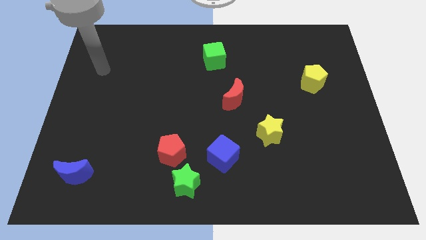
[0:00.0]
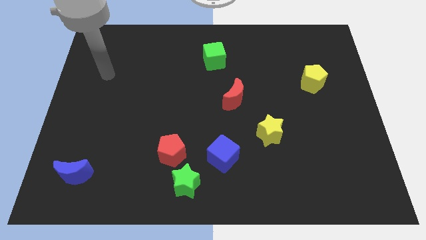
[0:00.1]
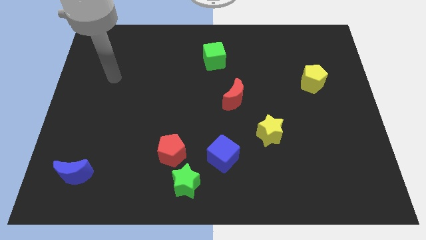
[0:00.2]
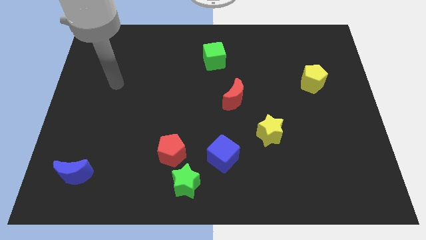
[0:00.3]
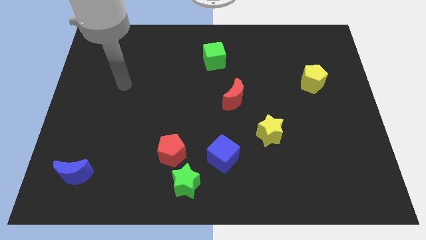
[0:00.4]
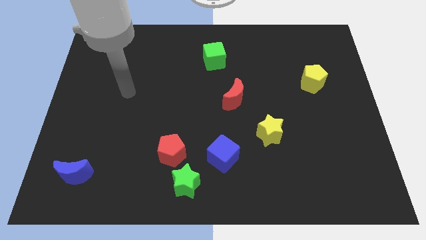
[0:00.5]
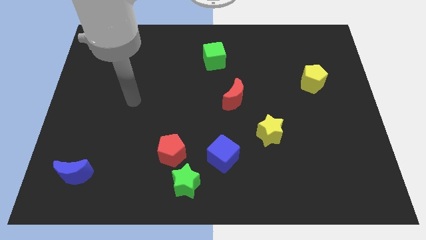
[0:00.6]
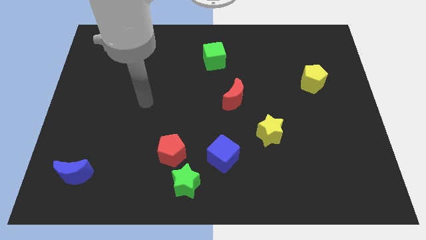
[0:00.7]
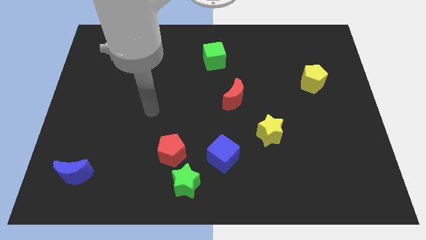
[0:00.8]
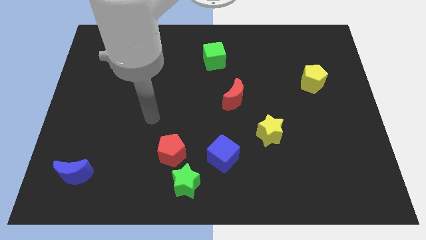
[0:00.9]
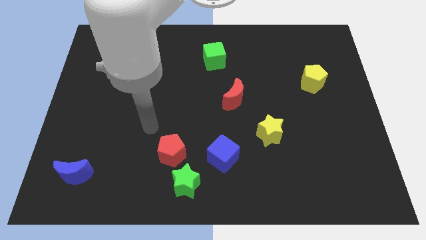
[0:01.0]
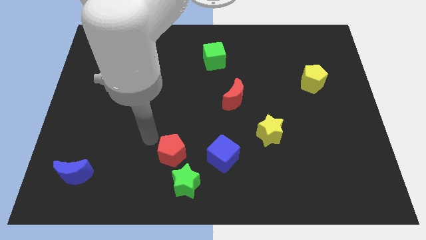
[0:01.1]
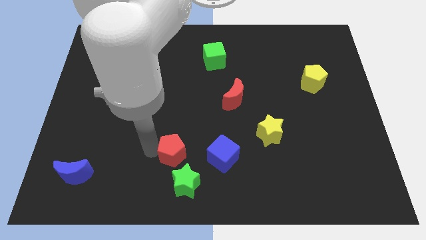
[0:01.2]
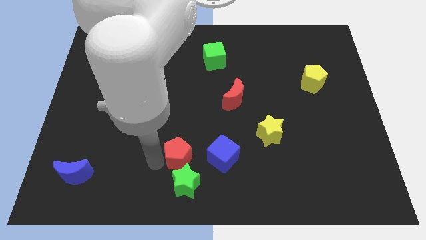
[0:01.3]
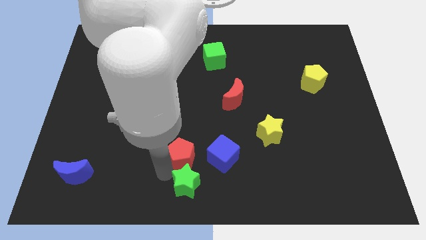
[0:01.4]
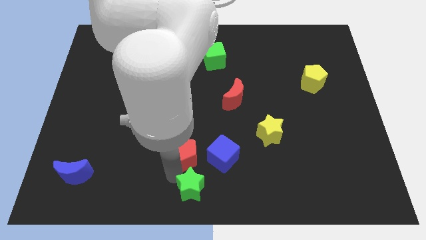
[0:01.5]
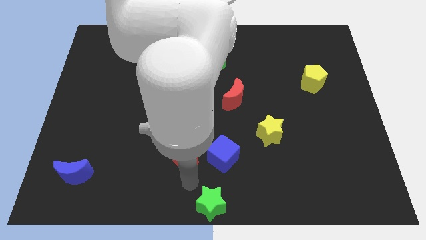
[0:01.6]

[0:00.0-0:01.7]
pull the red pentagon apart from the green star

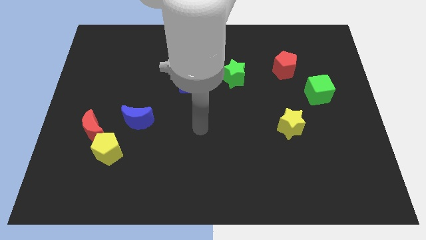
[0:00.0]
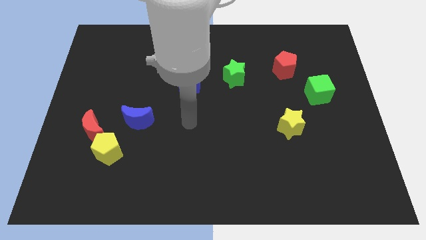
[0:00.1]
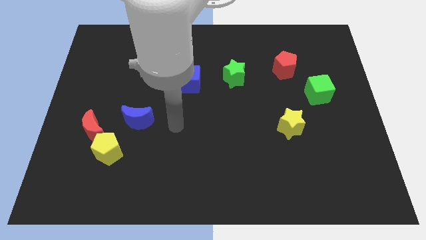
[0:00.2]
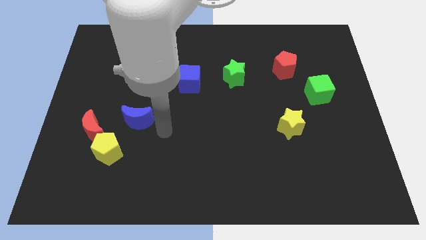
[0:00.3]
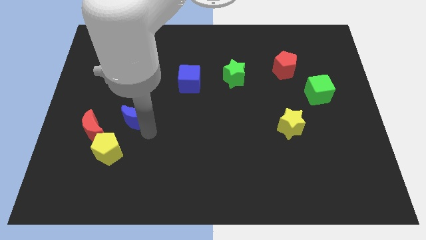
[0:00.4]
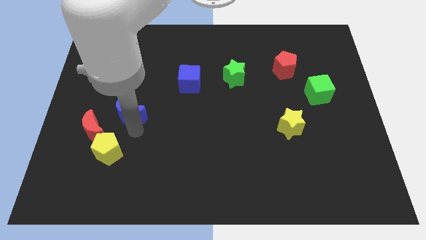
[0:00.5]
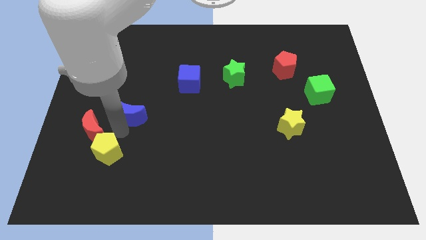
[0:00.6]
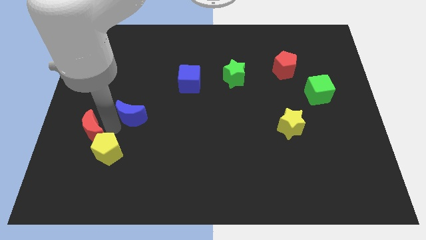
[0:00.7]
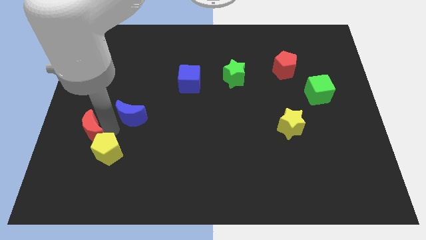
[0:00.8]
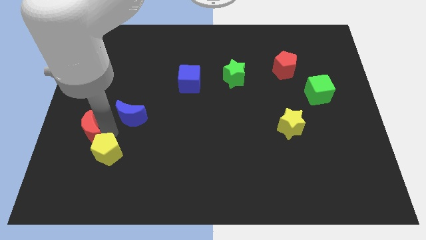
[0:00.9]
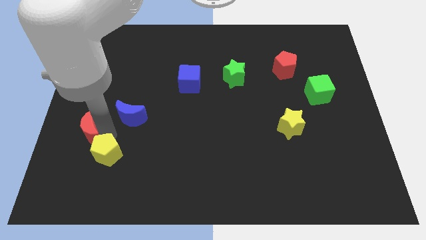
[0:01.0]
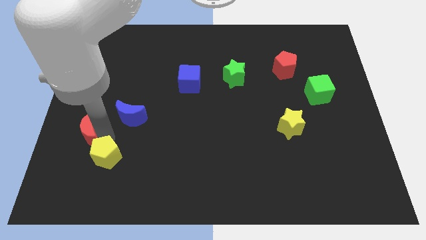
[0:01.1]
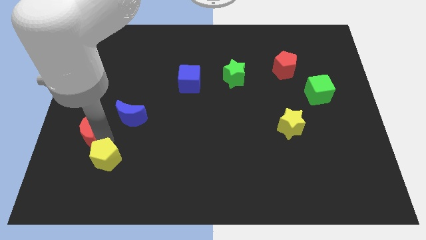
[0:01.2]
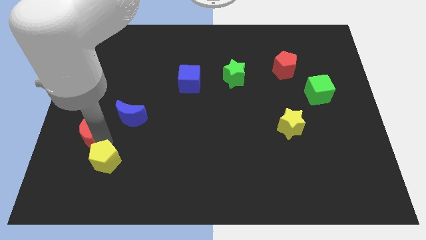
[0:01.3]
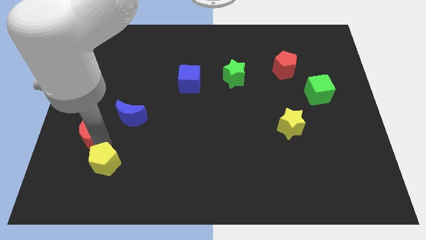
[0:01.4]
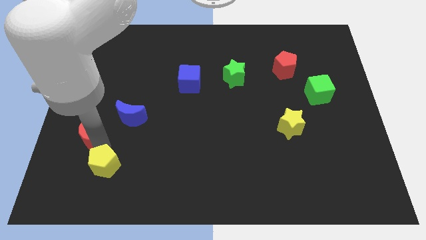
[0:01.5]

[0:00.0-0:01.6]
separate the yellow pentagon from the red moon and blue moon

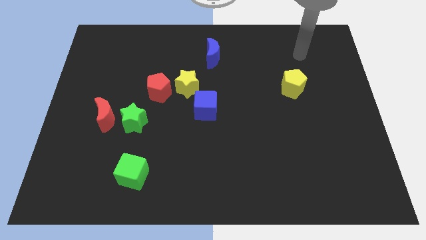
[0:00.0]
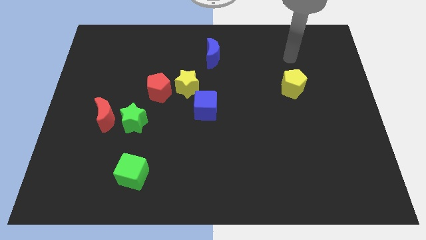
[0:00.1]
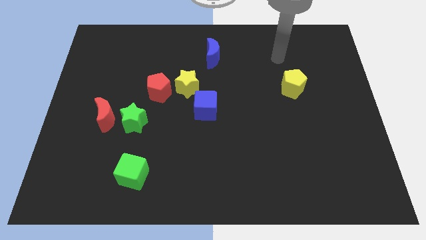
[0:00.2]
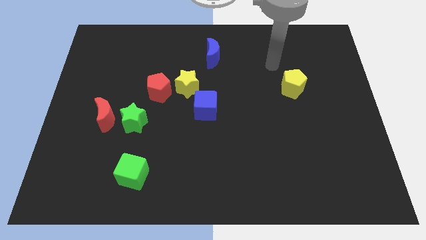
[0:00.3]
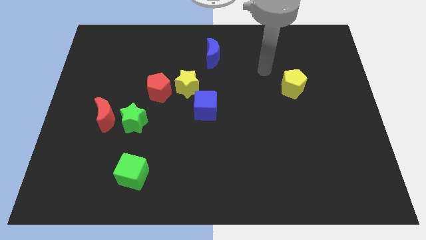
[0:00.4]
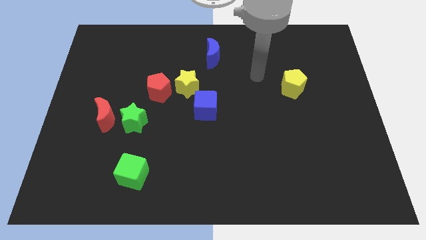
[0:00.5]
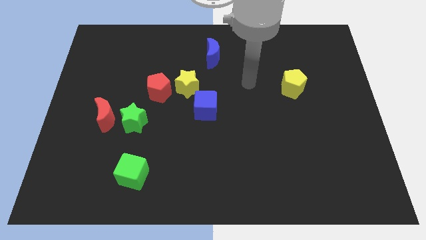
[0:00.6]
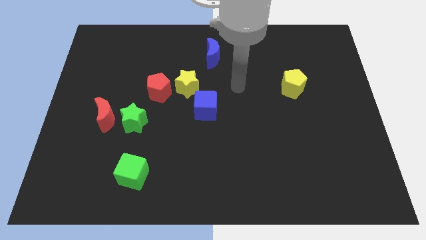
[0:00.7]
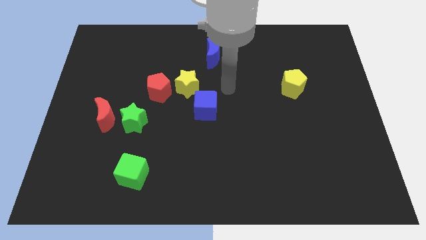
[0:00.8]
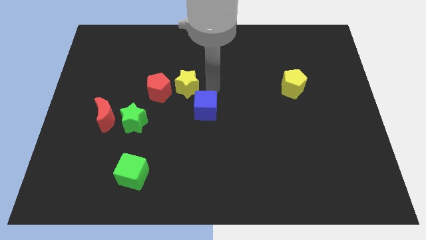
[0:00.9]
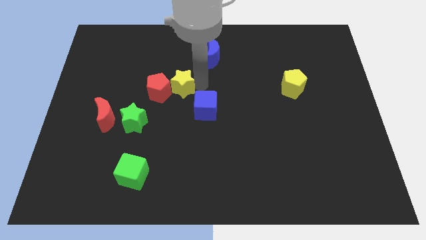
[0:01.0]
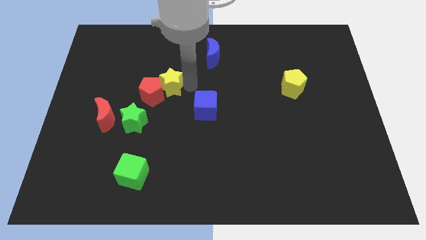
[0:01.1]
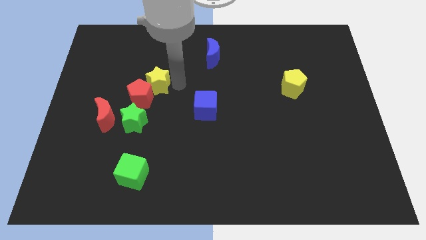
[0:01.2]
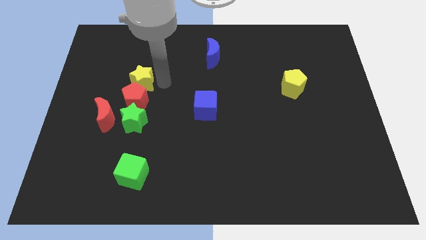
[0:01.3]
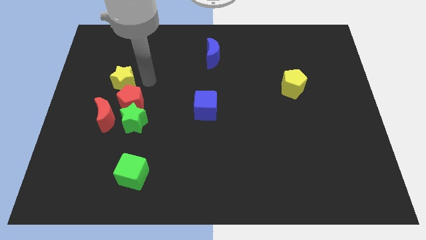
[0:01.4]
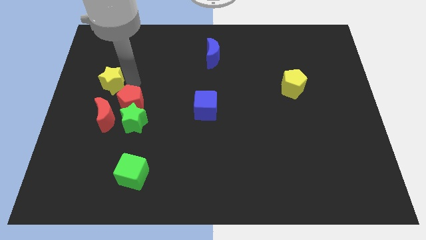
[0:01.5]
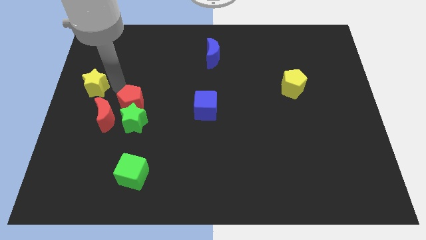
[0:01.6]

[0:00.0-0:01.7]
pull the red pentagon apart from the yellow star

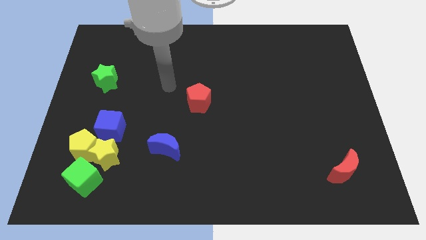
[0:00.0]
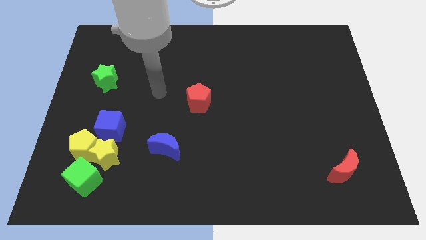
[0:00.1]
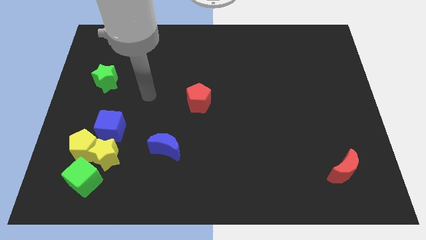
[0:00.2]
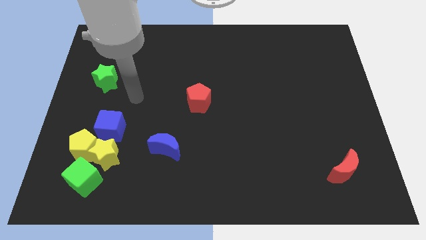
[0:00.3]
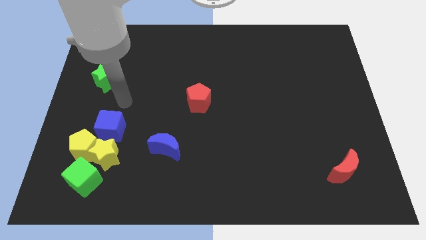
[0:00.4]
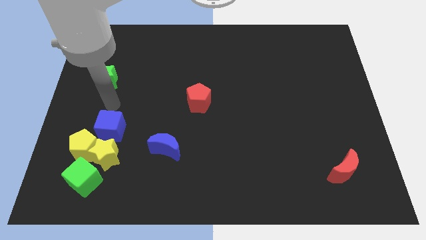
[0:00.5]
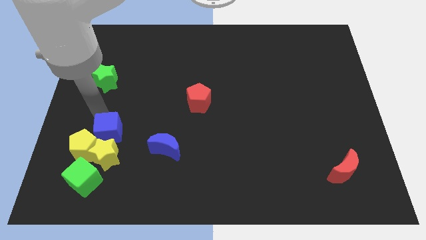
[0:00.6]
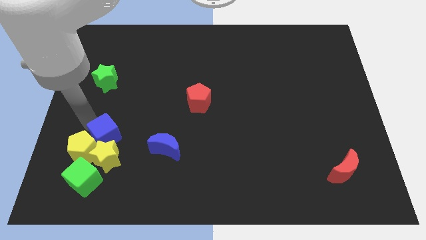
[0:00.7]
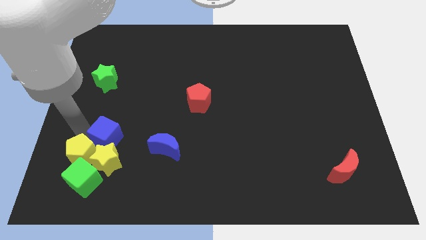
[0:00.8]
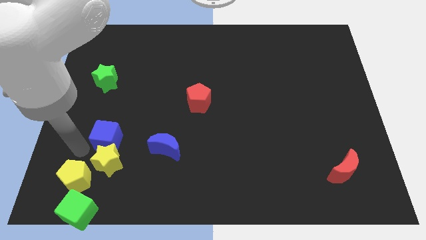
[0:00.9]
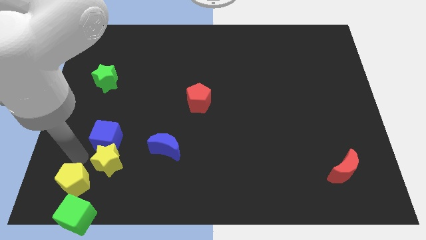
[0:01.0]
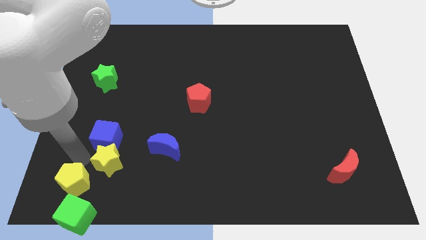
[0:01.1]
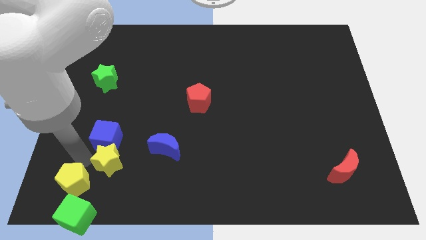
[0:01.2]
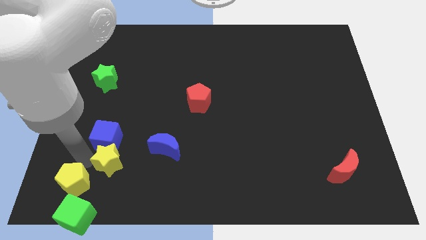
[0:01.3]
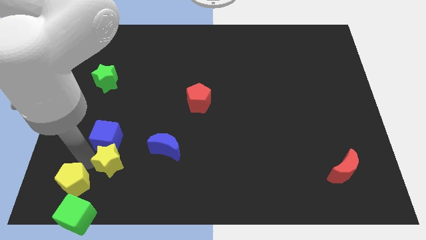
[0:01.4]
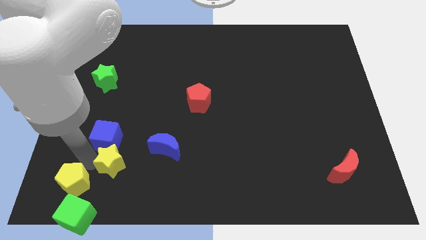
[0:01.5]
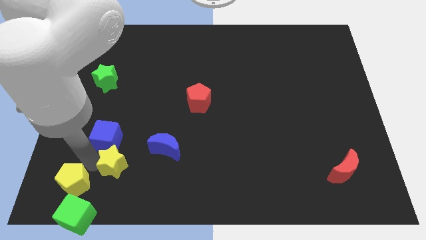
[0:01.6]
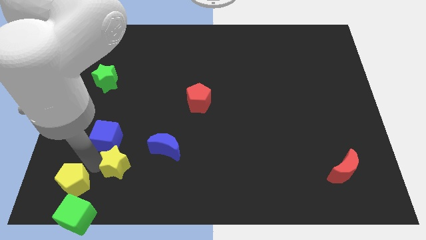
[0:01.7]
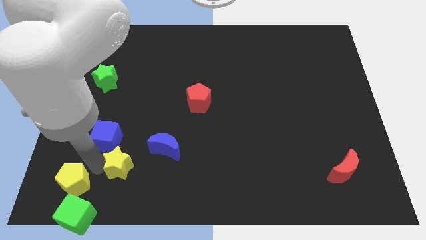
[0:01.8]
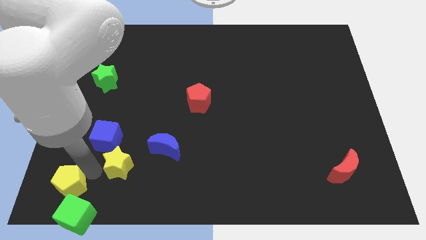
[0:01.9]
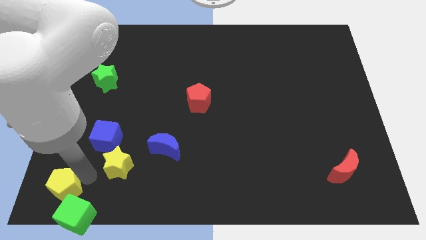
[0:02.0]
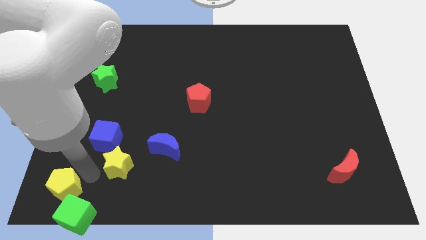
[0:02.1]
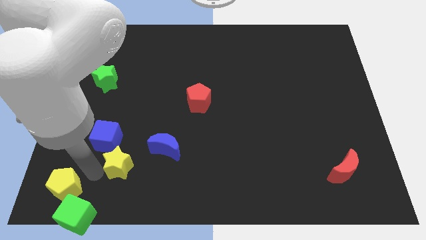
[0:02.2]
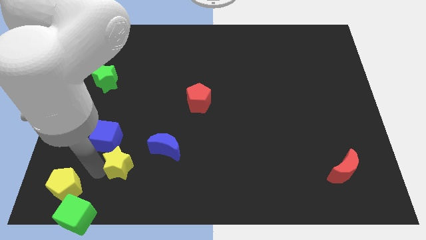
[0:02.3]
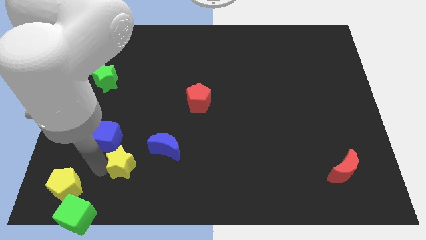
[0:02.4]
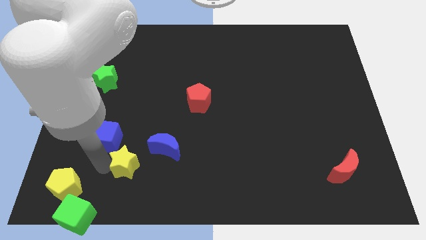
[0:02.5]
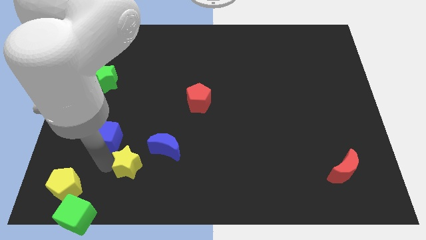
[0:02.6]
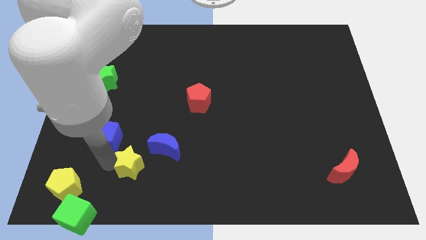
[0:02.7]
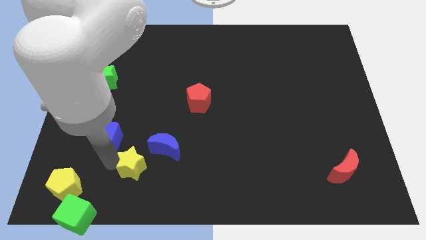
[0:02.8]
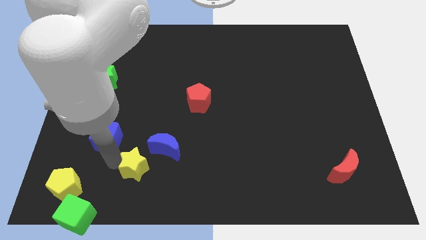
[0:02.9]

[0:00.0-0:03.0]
move the yellow star away from the yellow pentagon, green cube, and blue cube

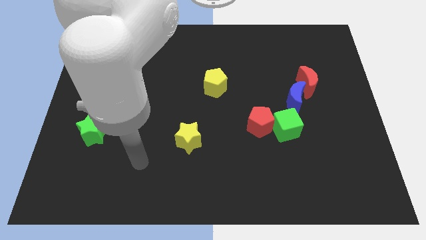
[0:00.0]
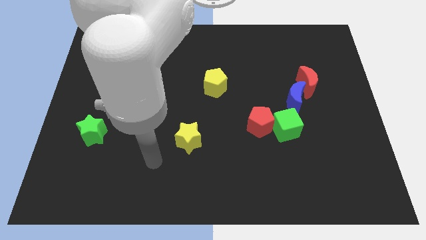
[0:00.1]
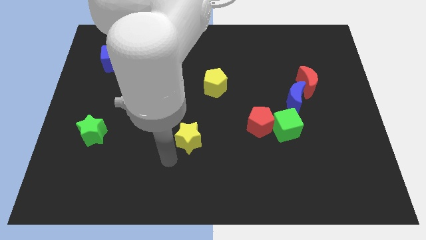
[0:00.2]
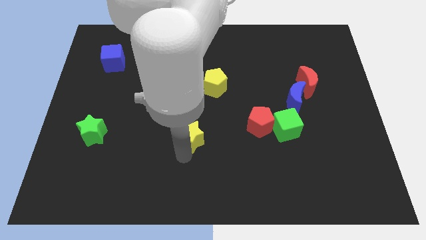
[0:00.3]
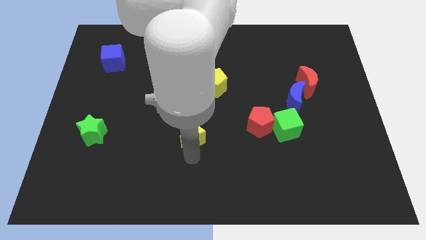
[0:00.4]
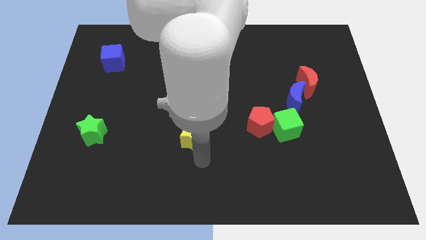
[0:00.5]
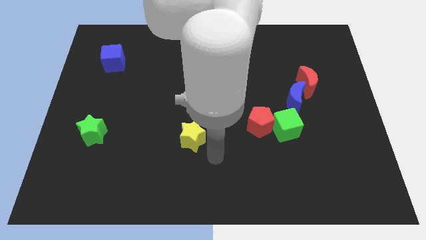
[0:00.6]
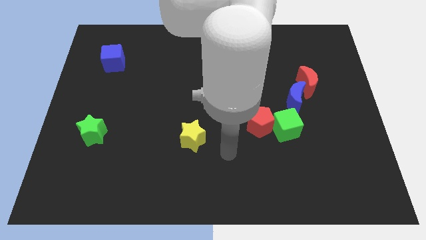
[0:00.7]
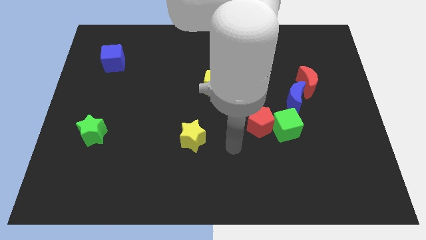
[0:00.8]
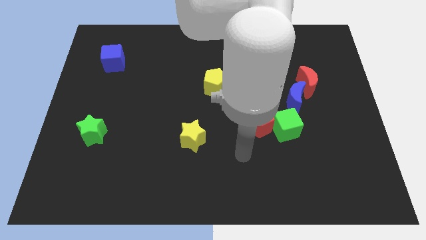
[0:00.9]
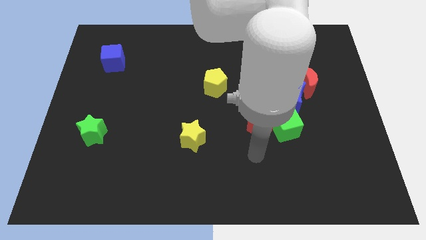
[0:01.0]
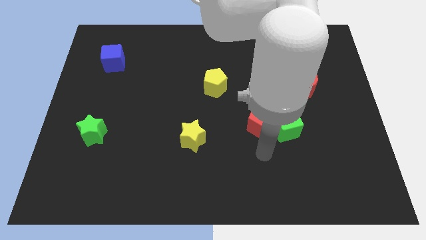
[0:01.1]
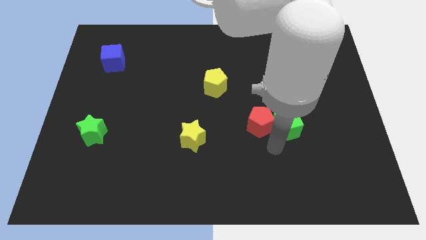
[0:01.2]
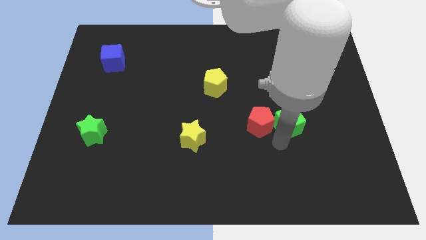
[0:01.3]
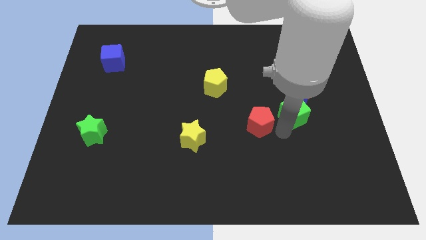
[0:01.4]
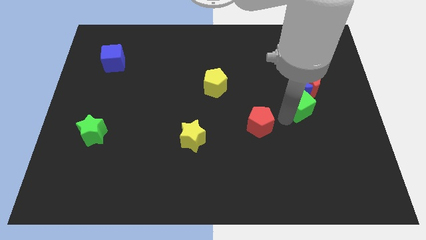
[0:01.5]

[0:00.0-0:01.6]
separate the red pentagon from the green cube
